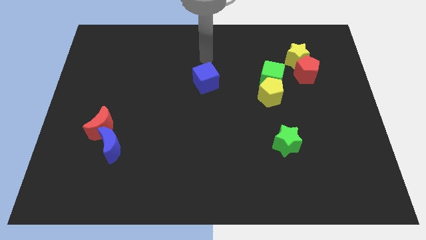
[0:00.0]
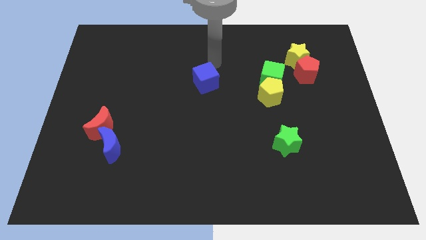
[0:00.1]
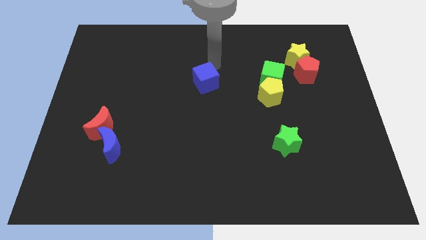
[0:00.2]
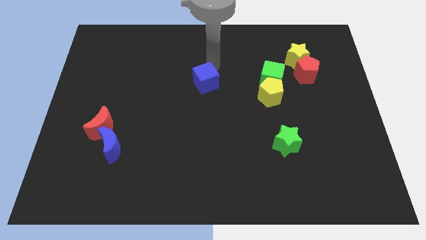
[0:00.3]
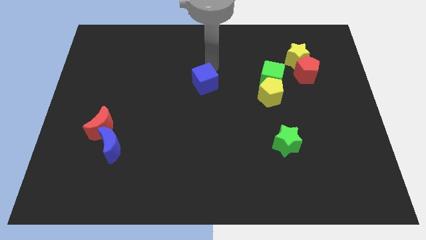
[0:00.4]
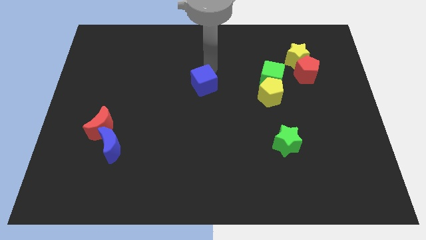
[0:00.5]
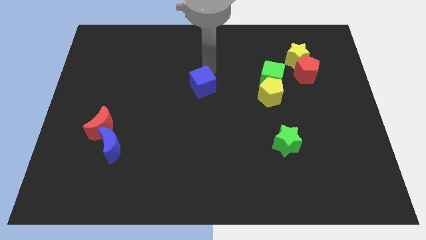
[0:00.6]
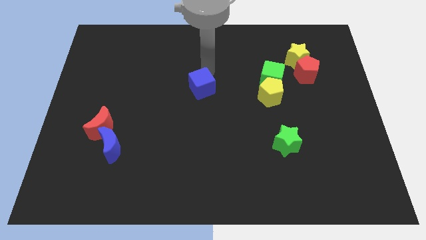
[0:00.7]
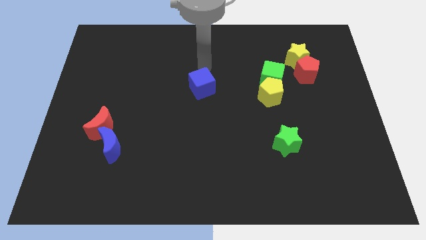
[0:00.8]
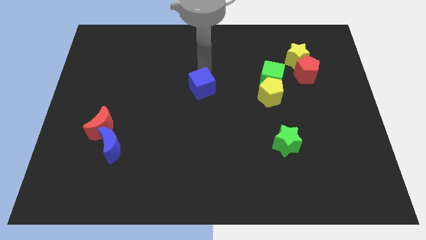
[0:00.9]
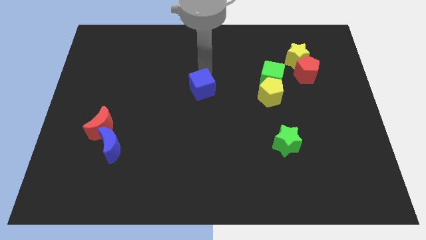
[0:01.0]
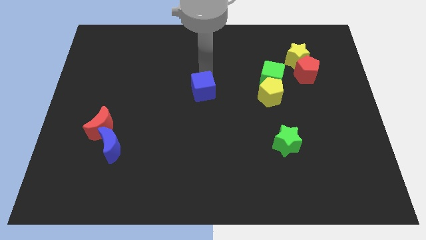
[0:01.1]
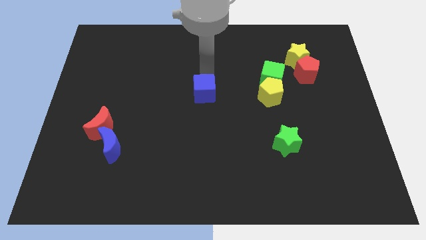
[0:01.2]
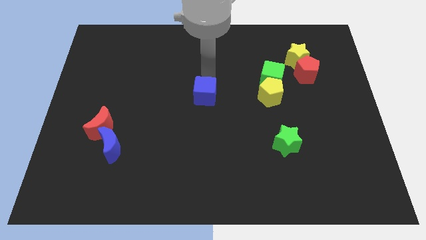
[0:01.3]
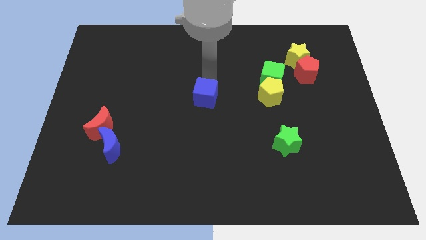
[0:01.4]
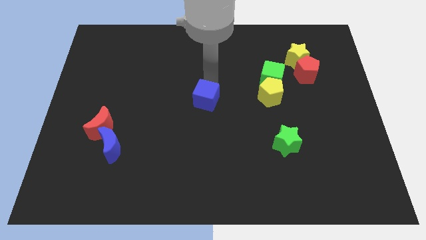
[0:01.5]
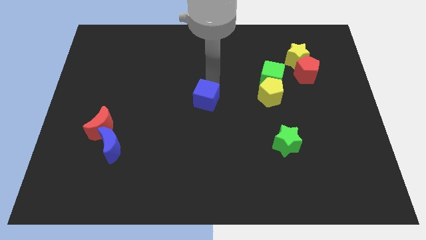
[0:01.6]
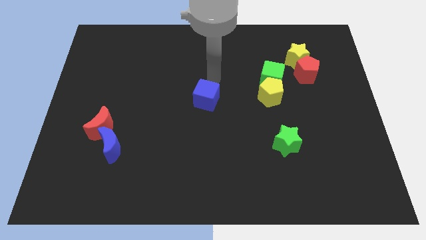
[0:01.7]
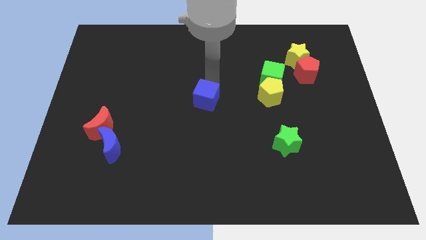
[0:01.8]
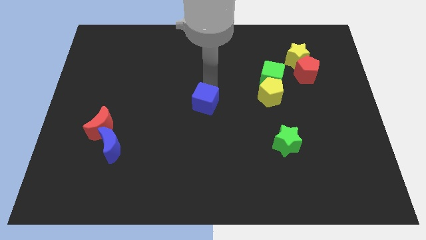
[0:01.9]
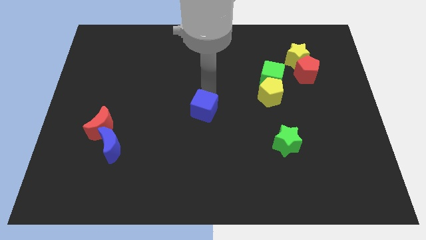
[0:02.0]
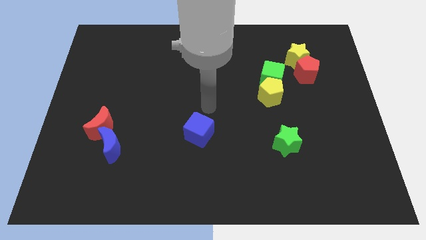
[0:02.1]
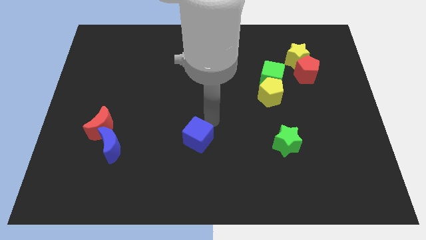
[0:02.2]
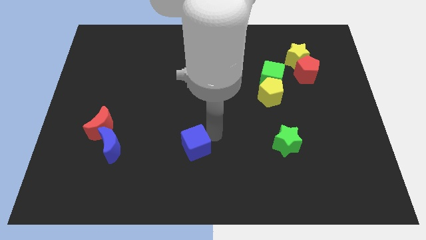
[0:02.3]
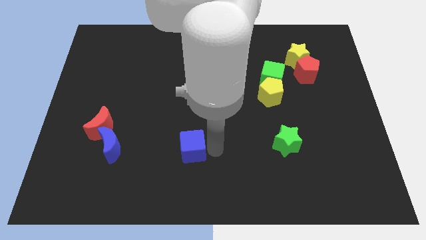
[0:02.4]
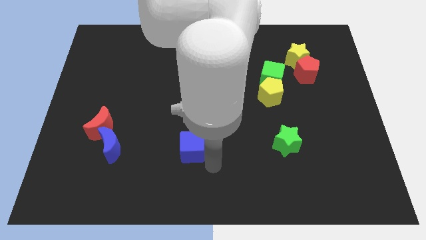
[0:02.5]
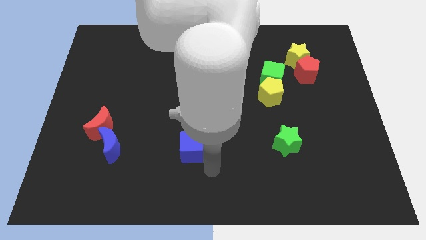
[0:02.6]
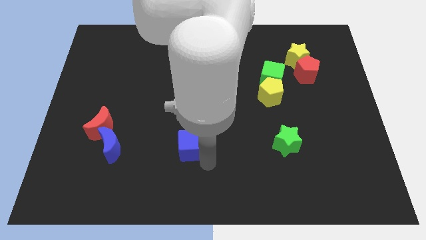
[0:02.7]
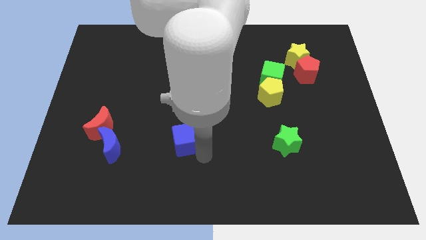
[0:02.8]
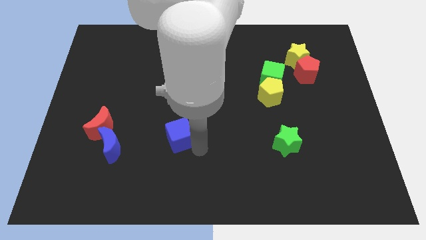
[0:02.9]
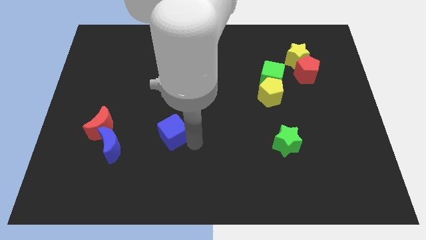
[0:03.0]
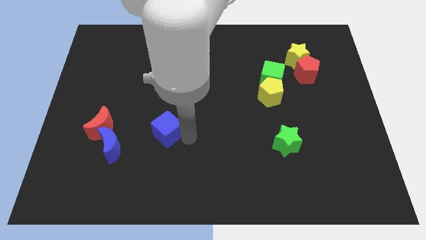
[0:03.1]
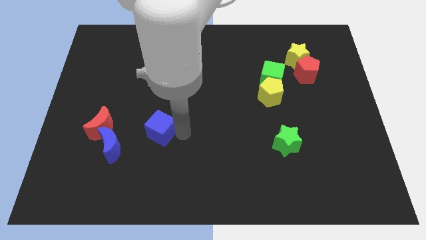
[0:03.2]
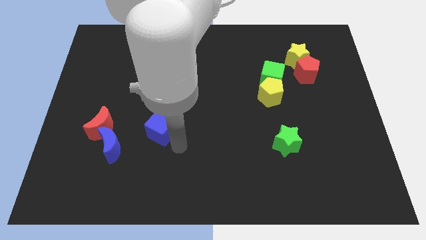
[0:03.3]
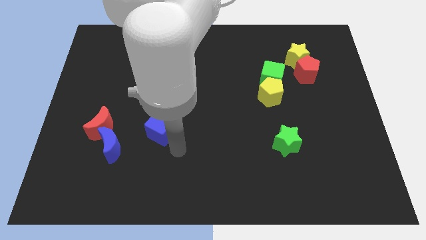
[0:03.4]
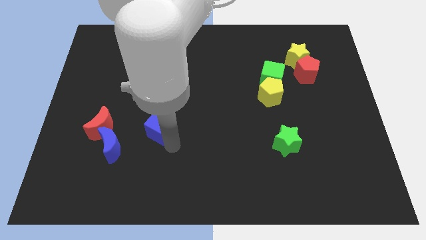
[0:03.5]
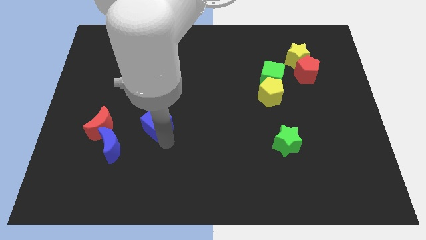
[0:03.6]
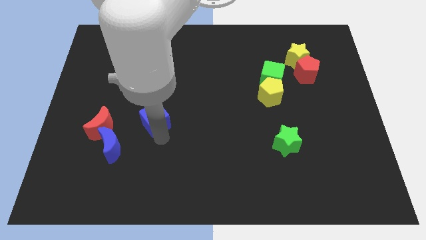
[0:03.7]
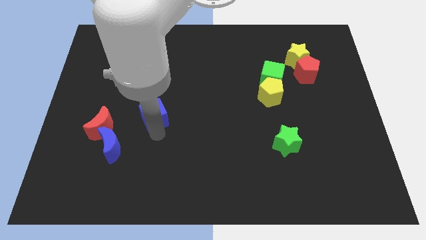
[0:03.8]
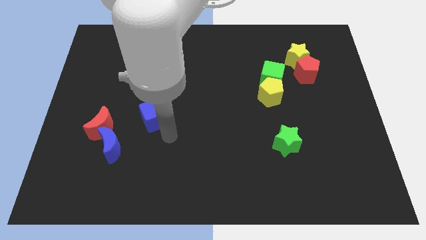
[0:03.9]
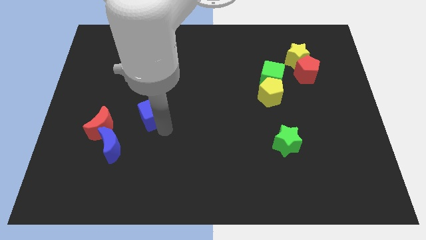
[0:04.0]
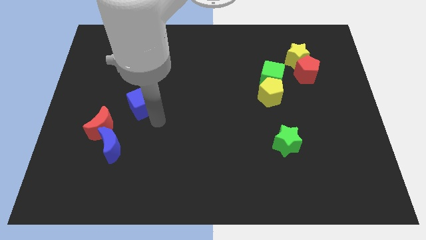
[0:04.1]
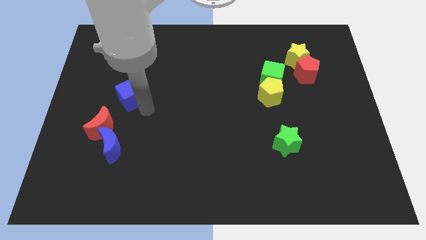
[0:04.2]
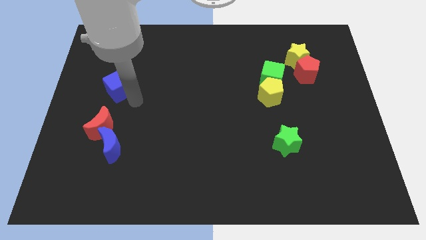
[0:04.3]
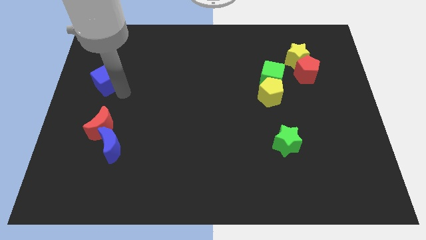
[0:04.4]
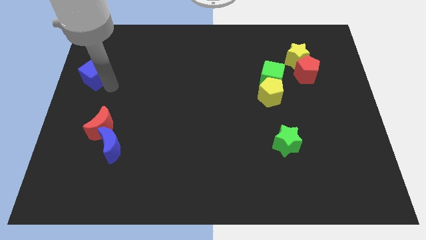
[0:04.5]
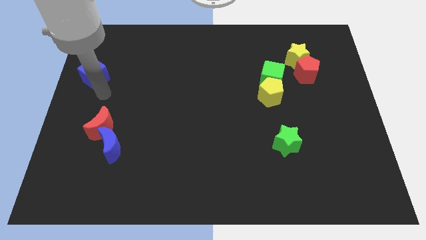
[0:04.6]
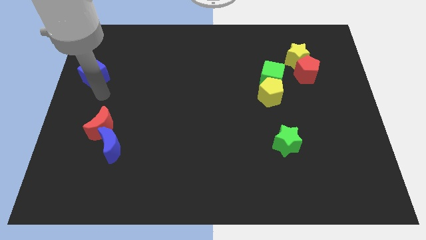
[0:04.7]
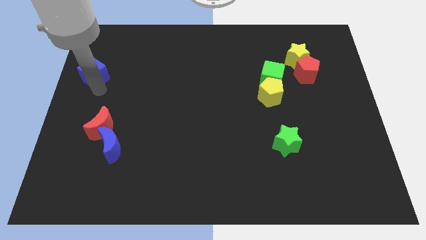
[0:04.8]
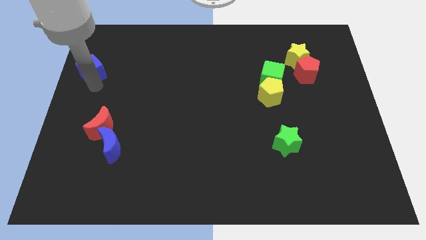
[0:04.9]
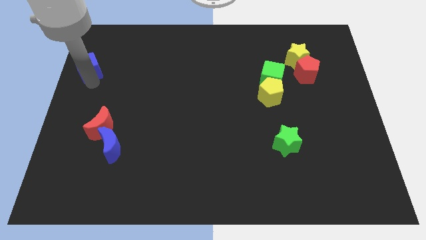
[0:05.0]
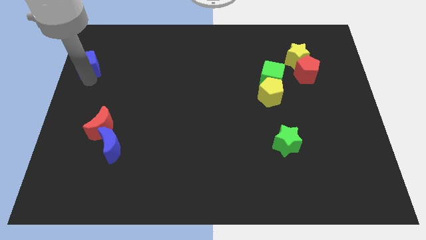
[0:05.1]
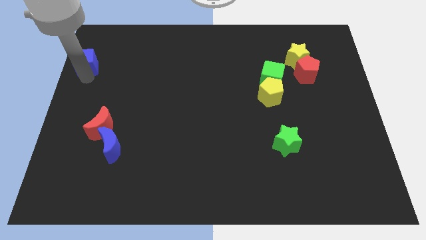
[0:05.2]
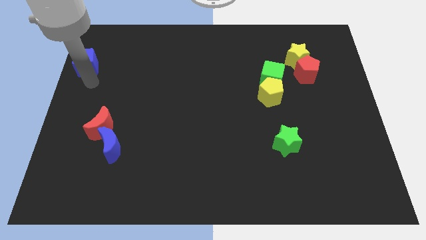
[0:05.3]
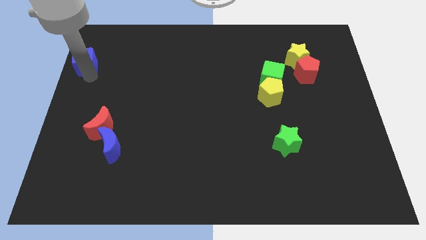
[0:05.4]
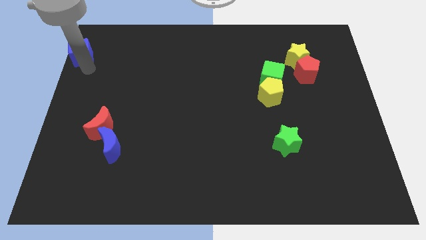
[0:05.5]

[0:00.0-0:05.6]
push the blue cube to the upper left corner

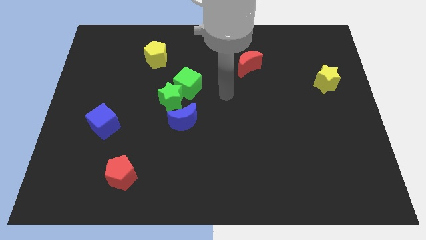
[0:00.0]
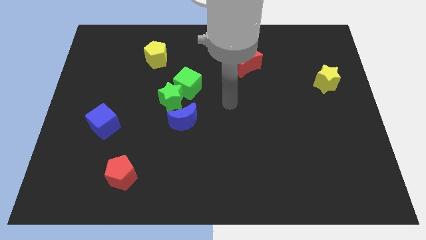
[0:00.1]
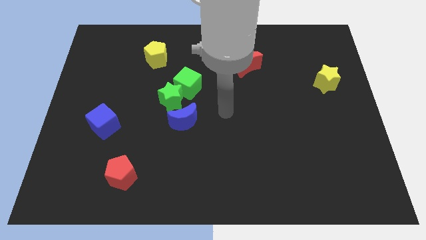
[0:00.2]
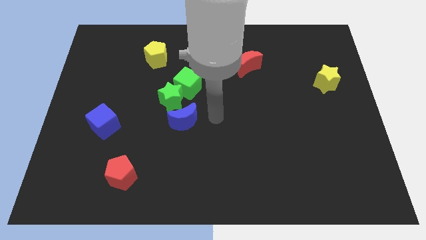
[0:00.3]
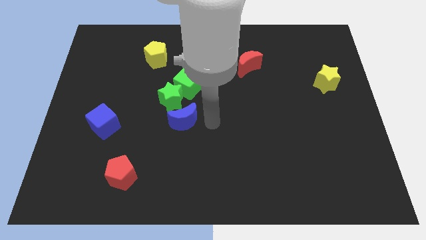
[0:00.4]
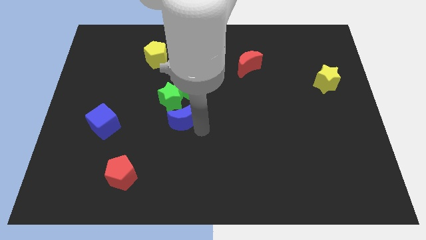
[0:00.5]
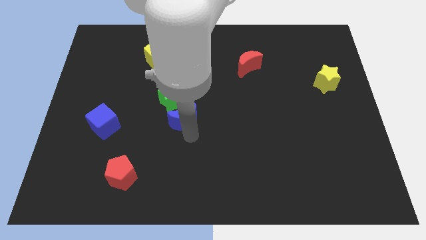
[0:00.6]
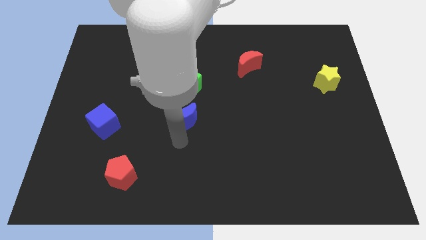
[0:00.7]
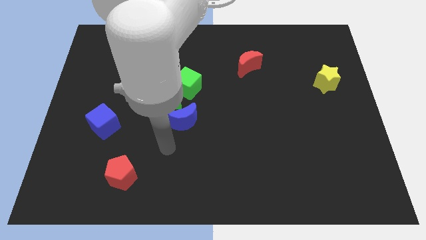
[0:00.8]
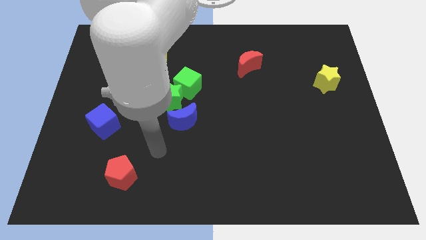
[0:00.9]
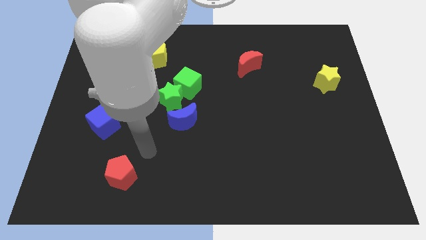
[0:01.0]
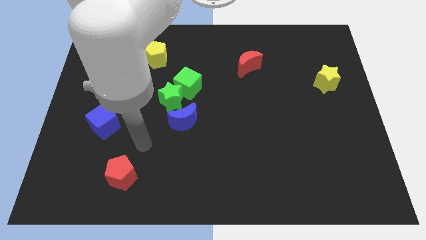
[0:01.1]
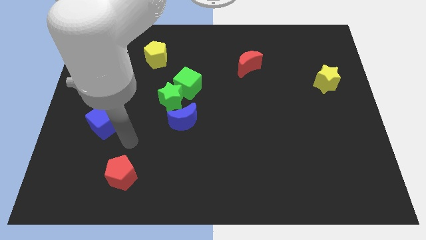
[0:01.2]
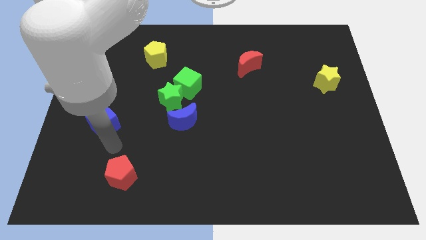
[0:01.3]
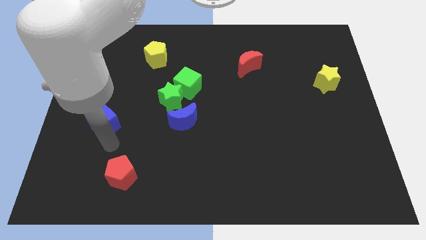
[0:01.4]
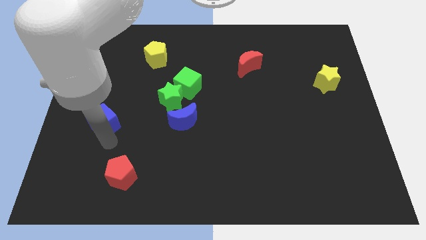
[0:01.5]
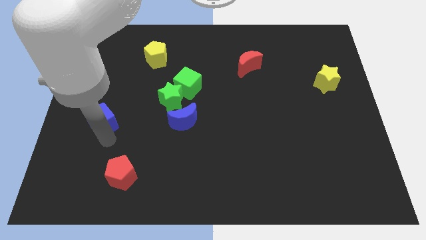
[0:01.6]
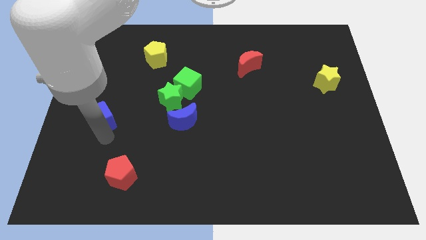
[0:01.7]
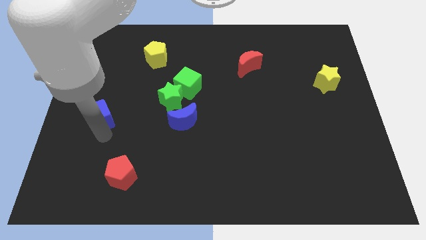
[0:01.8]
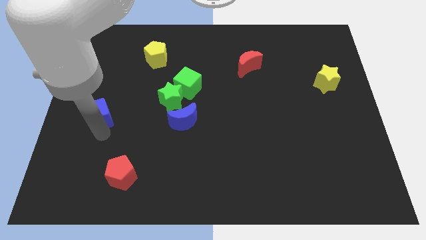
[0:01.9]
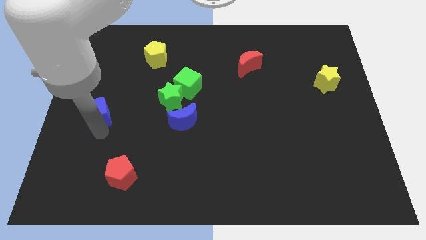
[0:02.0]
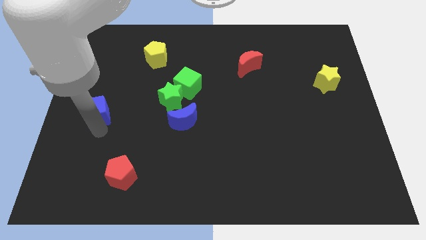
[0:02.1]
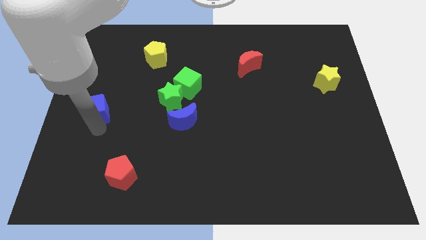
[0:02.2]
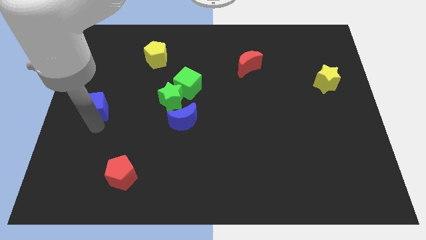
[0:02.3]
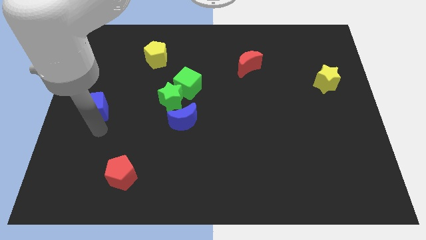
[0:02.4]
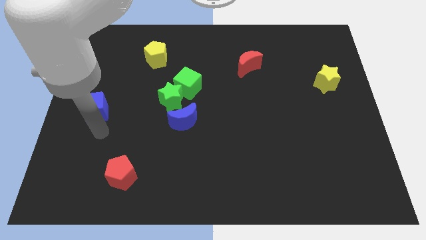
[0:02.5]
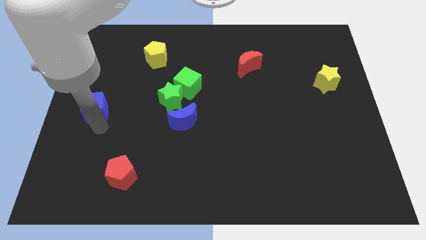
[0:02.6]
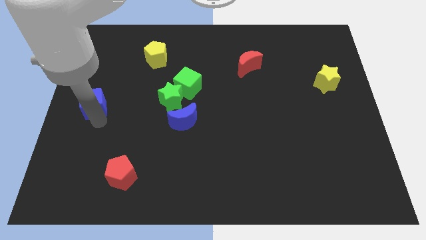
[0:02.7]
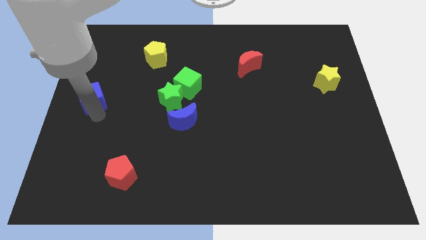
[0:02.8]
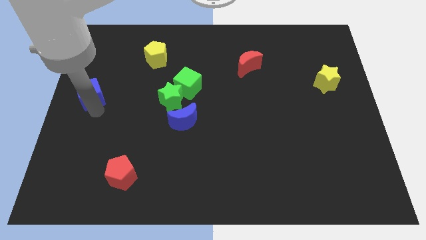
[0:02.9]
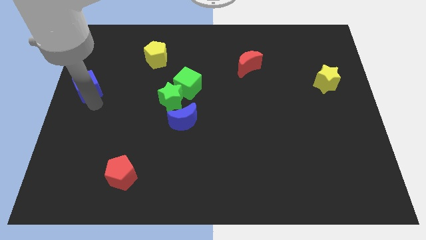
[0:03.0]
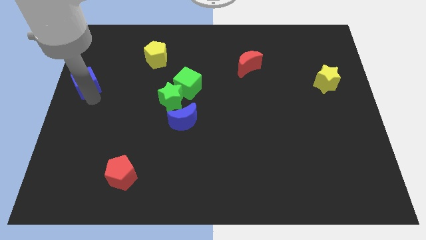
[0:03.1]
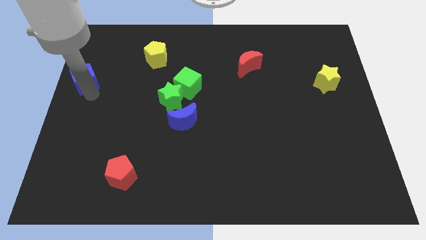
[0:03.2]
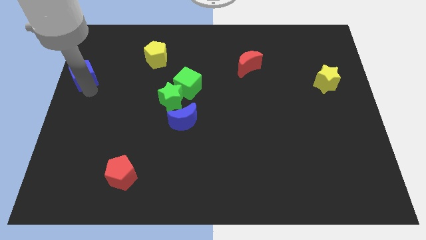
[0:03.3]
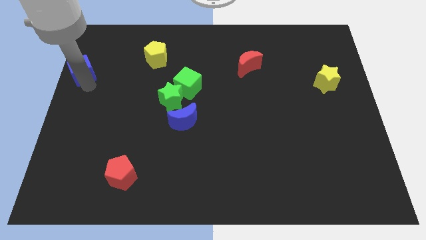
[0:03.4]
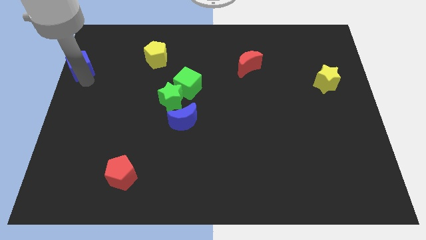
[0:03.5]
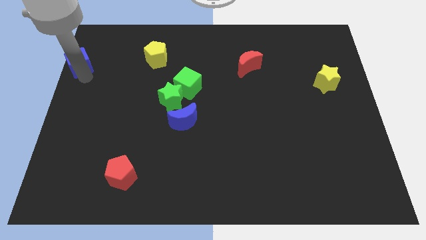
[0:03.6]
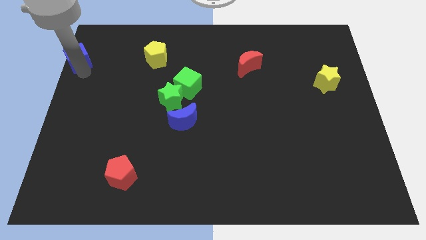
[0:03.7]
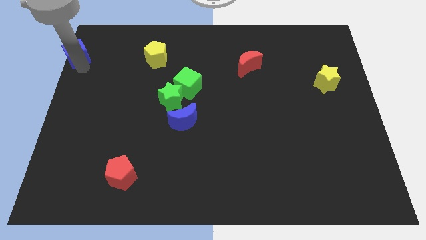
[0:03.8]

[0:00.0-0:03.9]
move the blue cube to the top left corner
